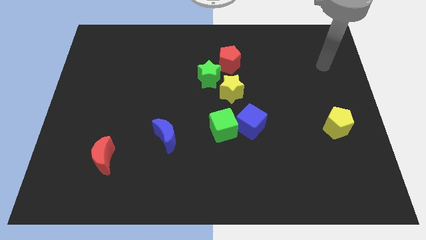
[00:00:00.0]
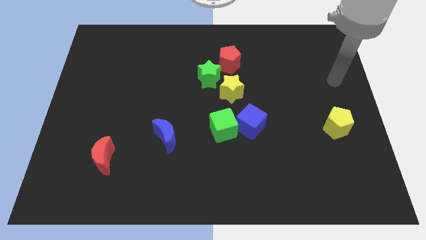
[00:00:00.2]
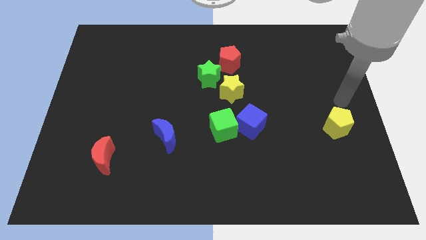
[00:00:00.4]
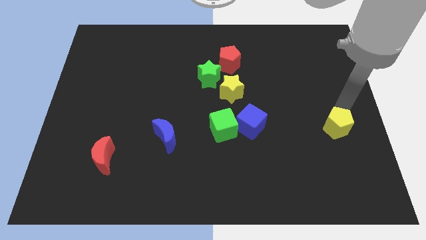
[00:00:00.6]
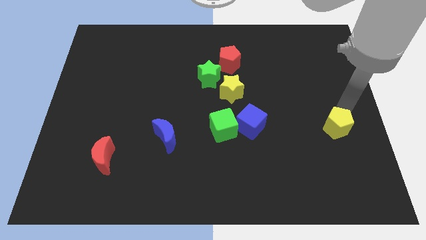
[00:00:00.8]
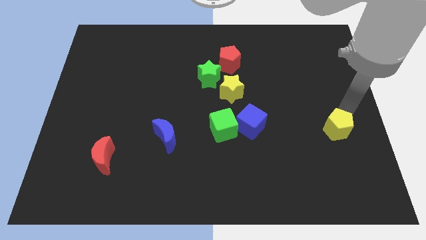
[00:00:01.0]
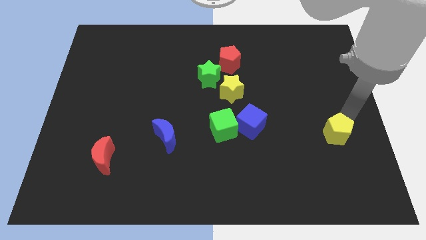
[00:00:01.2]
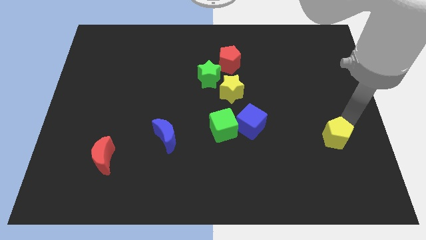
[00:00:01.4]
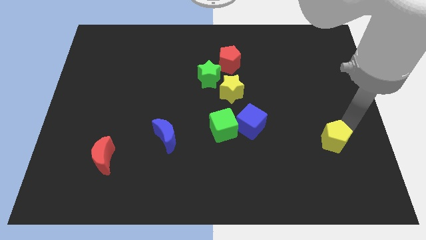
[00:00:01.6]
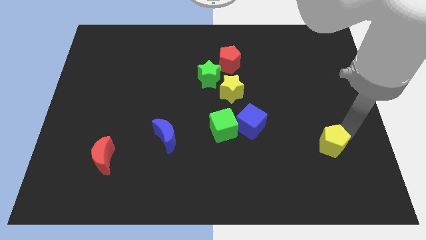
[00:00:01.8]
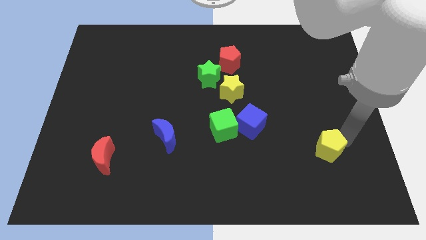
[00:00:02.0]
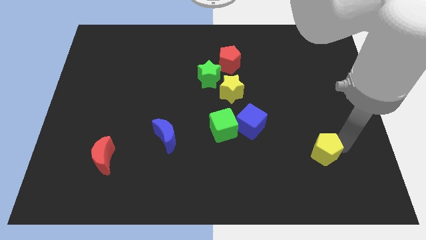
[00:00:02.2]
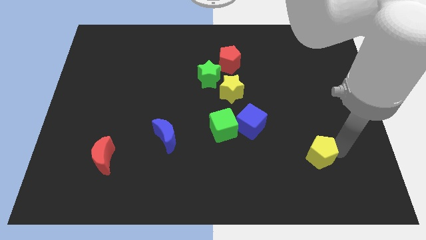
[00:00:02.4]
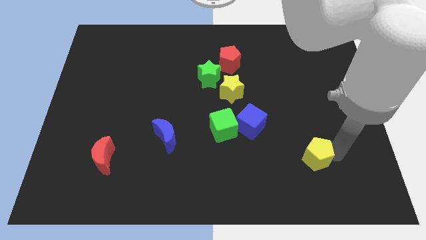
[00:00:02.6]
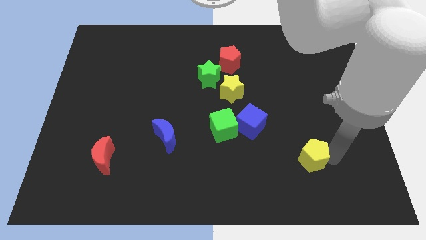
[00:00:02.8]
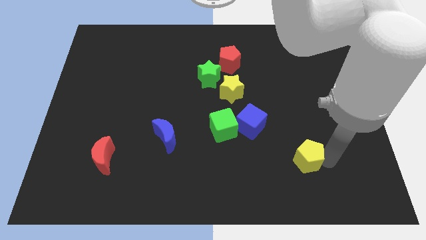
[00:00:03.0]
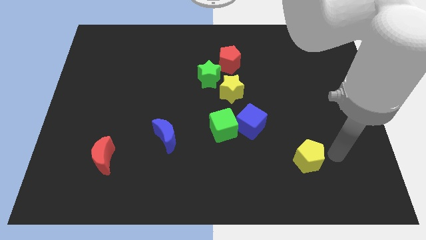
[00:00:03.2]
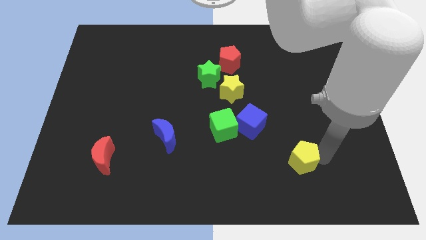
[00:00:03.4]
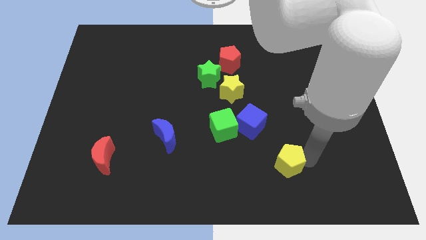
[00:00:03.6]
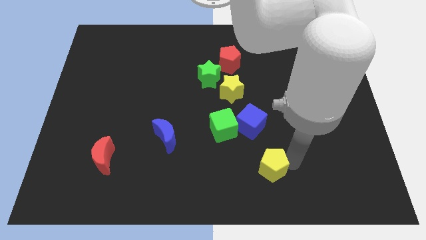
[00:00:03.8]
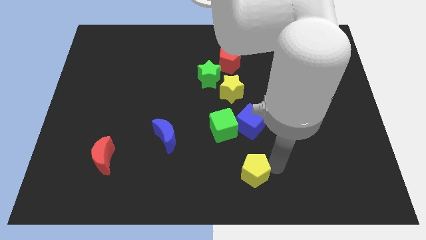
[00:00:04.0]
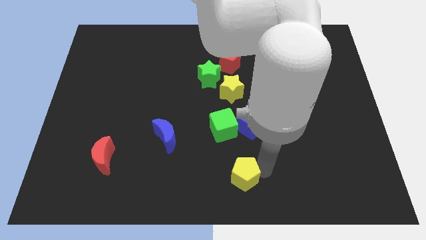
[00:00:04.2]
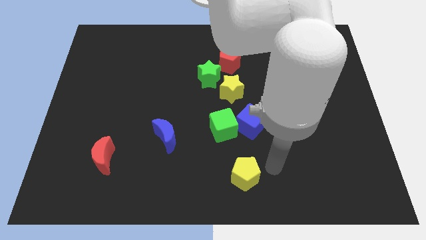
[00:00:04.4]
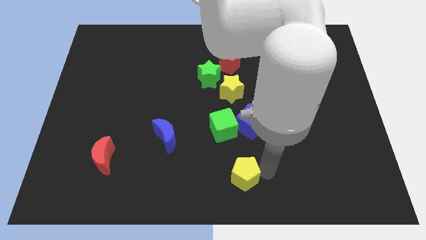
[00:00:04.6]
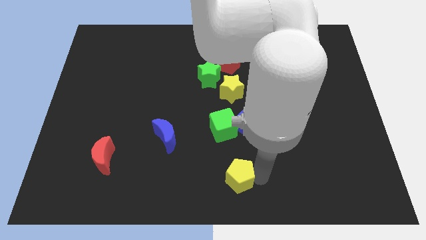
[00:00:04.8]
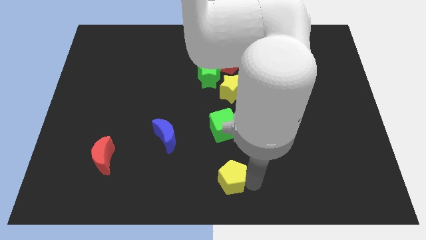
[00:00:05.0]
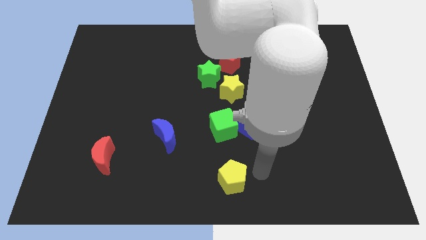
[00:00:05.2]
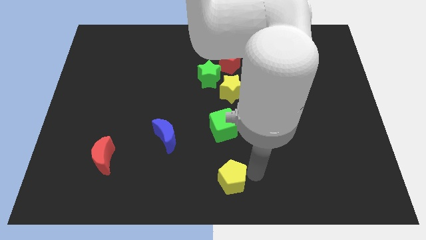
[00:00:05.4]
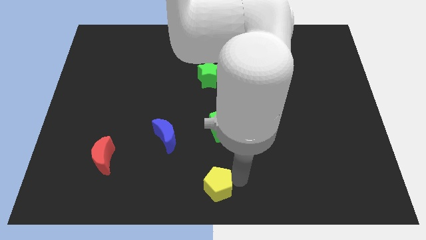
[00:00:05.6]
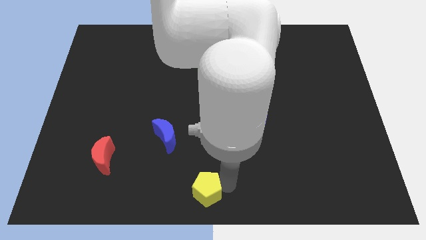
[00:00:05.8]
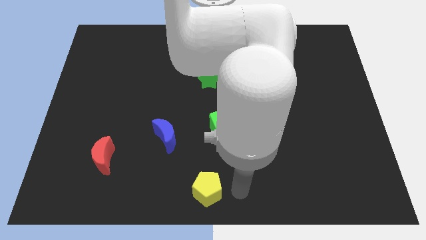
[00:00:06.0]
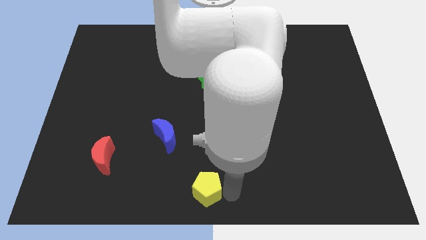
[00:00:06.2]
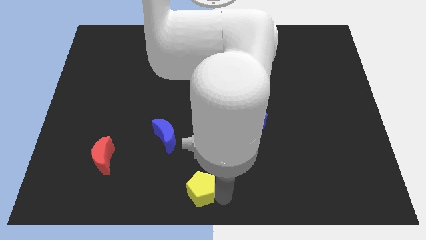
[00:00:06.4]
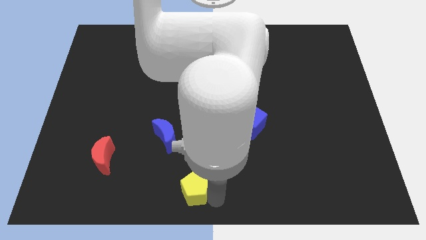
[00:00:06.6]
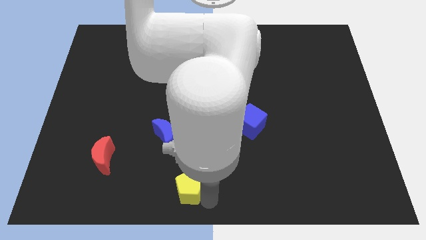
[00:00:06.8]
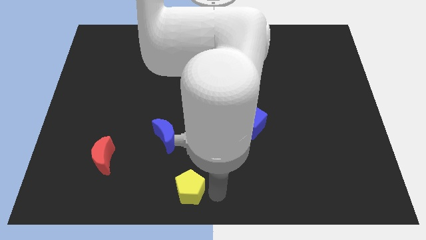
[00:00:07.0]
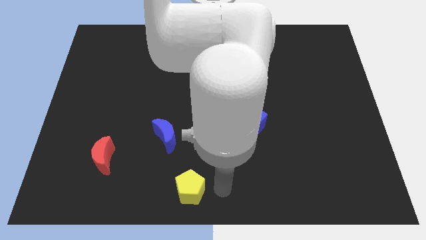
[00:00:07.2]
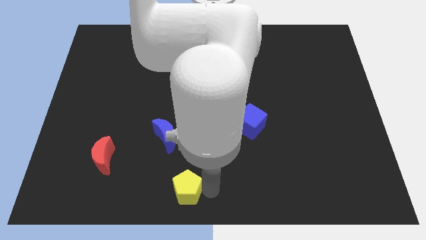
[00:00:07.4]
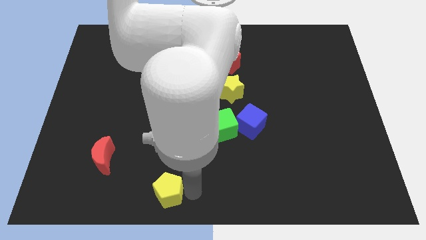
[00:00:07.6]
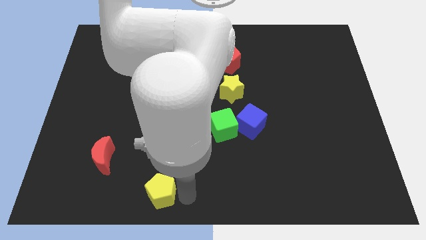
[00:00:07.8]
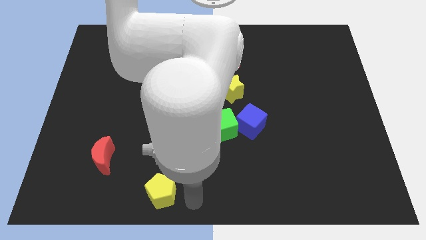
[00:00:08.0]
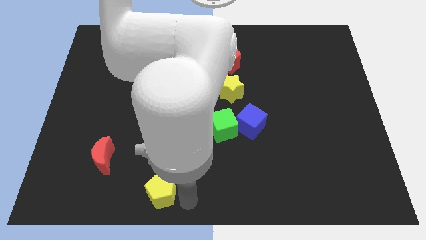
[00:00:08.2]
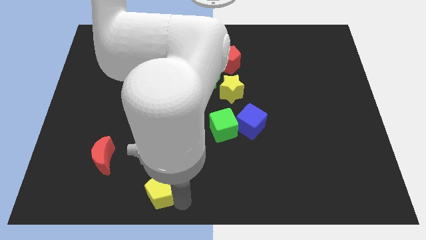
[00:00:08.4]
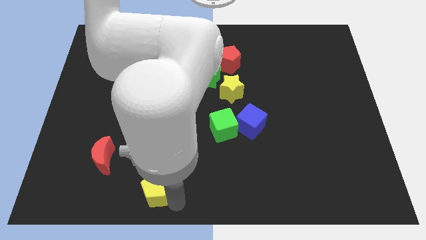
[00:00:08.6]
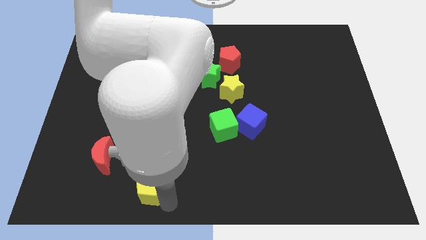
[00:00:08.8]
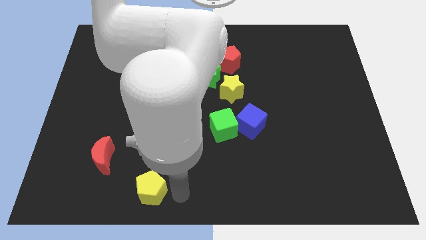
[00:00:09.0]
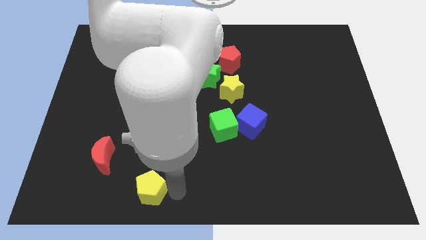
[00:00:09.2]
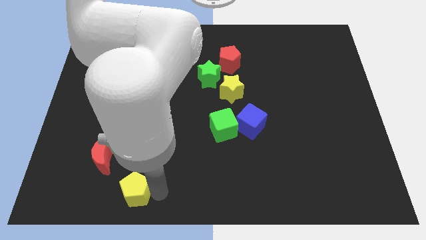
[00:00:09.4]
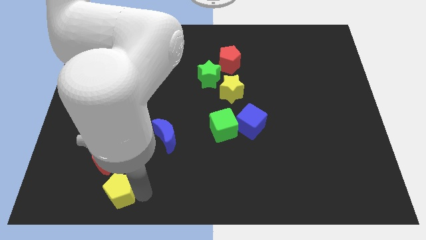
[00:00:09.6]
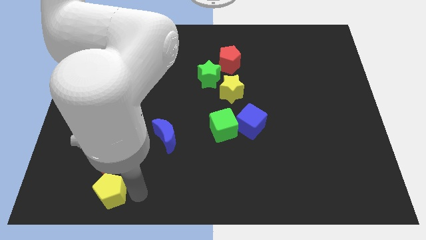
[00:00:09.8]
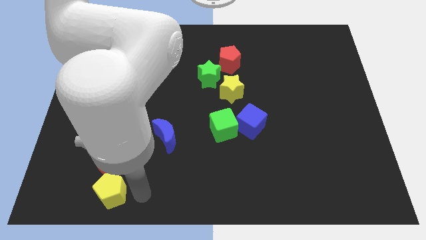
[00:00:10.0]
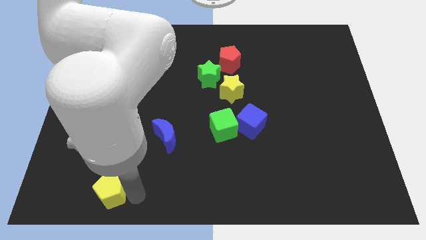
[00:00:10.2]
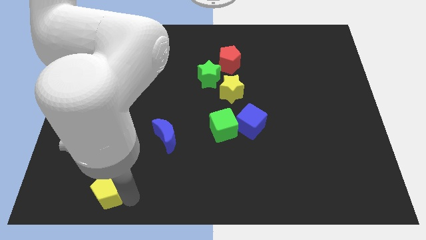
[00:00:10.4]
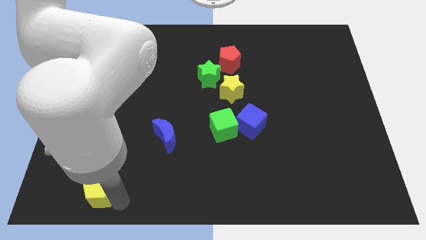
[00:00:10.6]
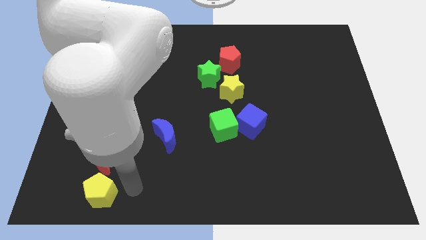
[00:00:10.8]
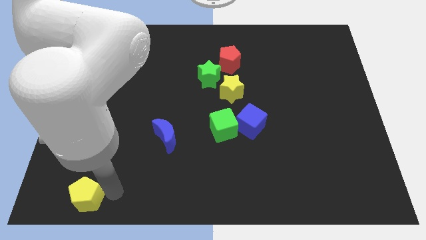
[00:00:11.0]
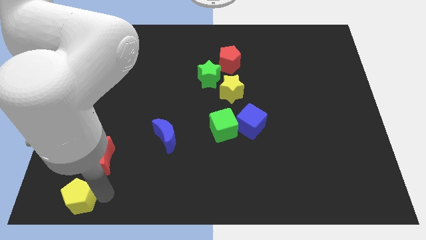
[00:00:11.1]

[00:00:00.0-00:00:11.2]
move the yellow pentagon to the lower left corner

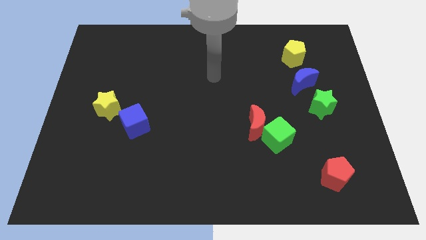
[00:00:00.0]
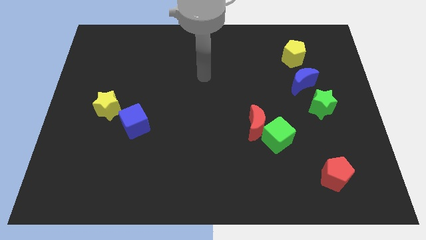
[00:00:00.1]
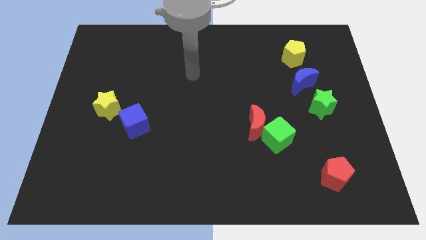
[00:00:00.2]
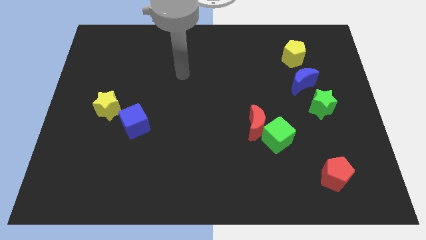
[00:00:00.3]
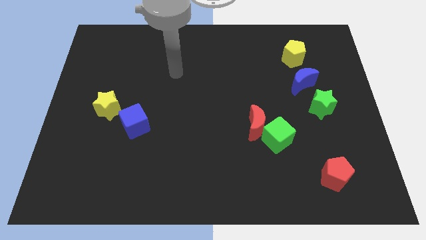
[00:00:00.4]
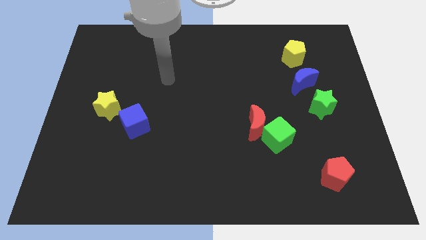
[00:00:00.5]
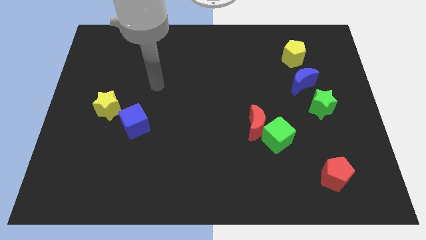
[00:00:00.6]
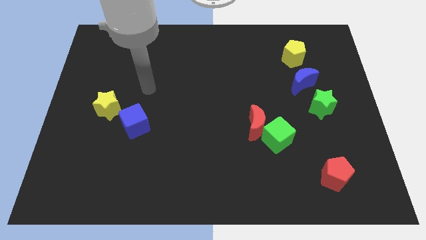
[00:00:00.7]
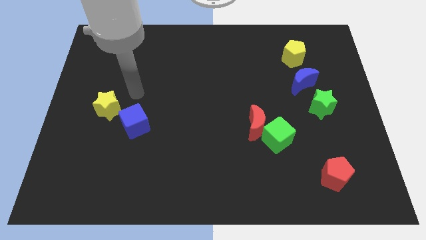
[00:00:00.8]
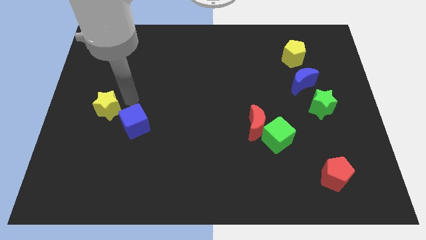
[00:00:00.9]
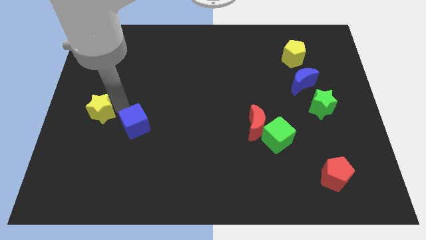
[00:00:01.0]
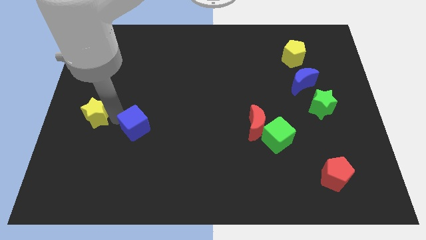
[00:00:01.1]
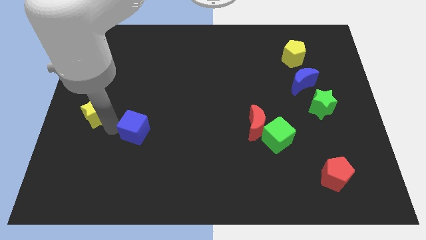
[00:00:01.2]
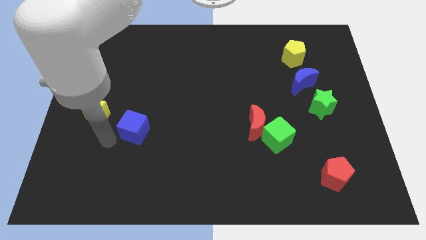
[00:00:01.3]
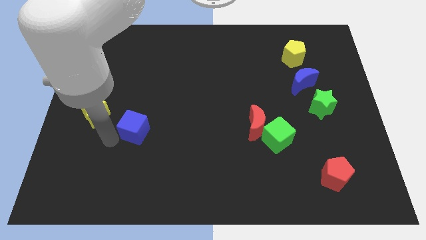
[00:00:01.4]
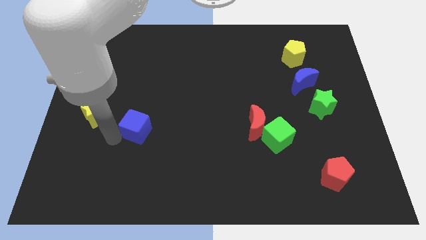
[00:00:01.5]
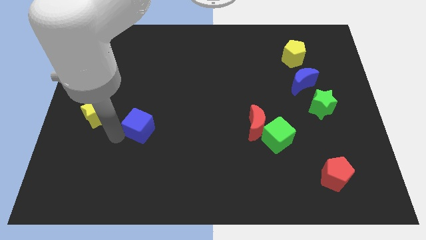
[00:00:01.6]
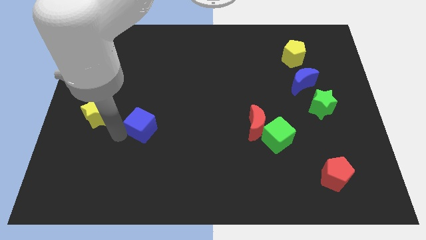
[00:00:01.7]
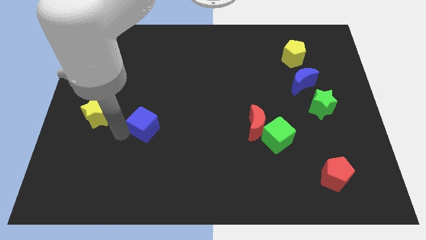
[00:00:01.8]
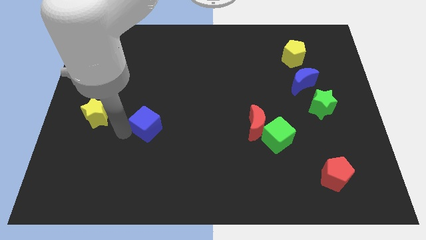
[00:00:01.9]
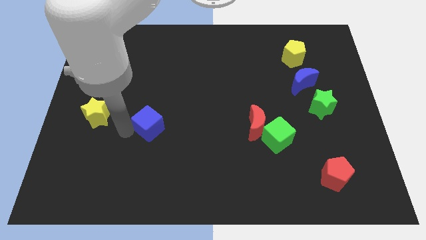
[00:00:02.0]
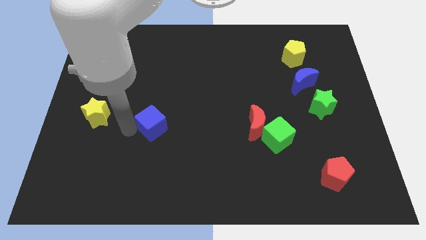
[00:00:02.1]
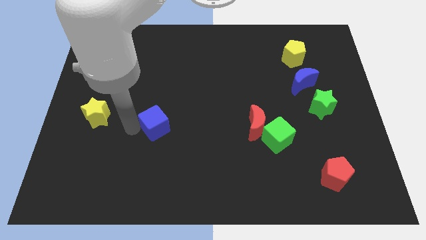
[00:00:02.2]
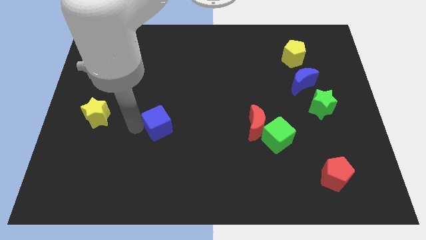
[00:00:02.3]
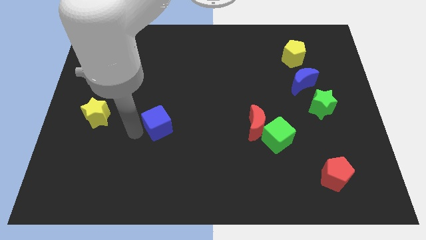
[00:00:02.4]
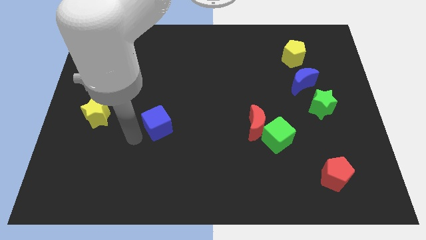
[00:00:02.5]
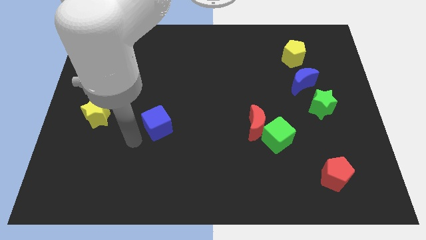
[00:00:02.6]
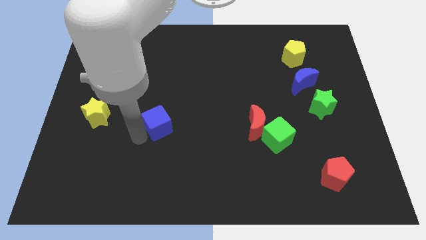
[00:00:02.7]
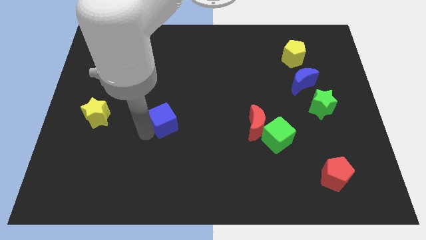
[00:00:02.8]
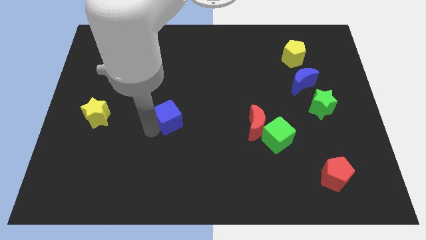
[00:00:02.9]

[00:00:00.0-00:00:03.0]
push the blue cube to the middle
